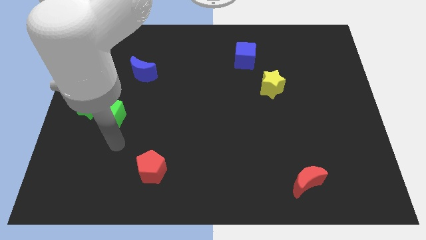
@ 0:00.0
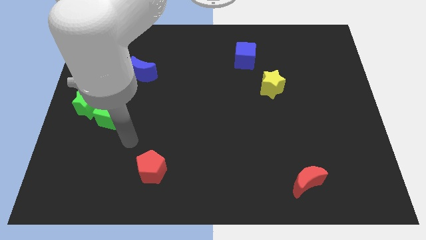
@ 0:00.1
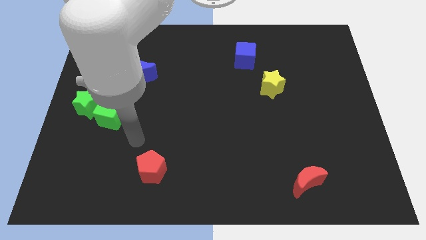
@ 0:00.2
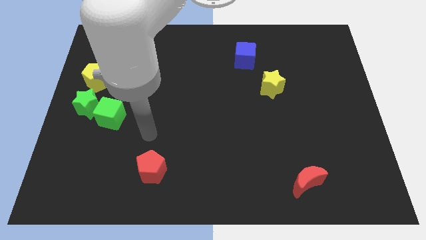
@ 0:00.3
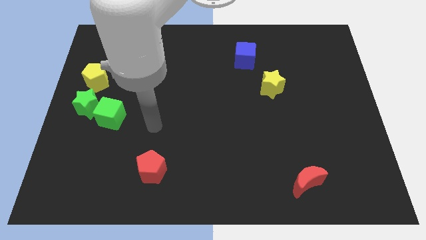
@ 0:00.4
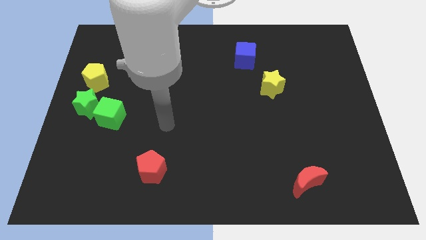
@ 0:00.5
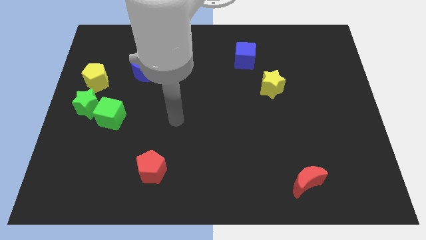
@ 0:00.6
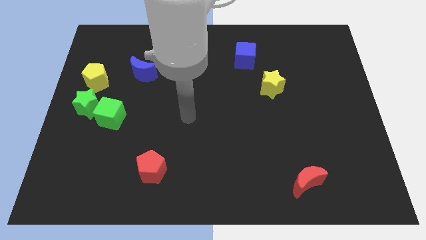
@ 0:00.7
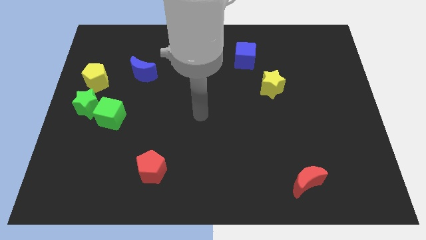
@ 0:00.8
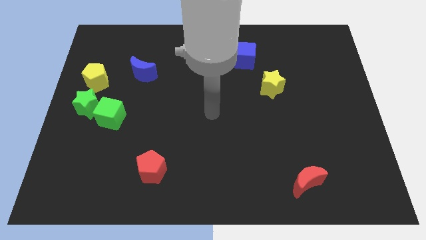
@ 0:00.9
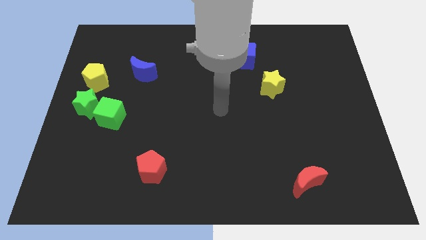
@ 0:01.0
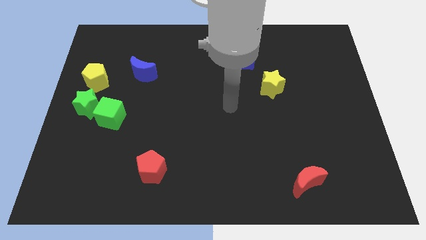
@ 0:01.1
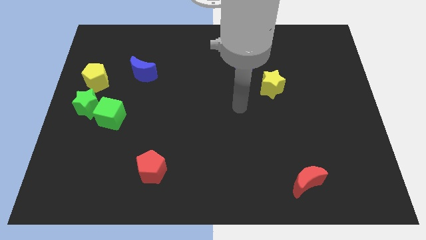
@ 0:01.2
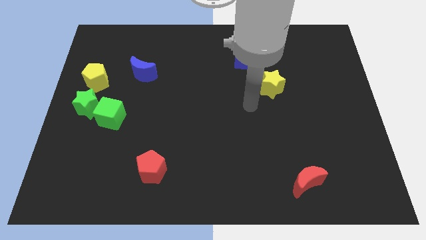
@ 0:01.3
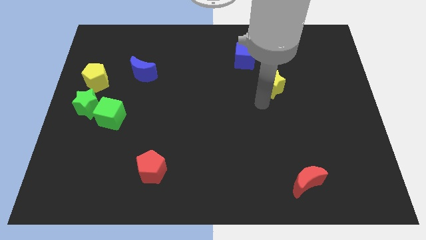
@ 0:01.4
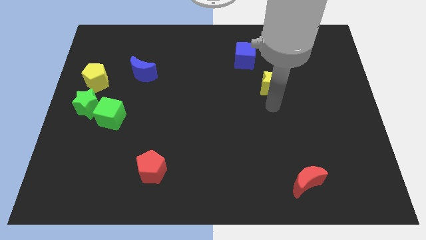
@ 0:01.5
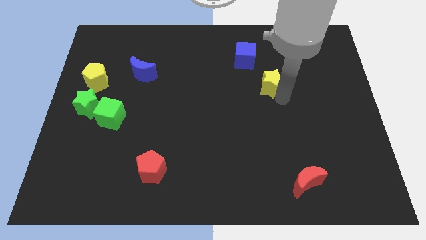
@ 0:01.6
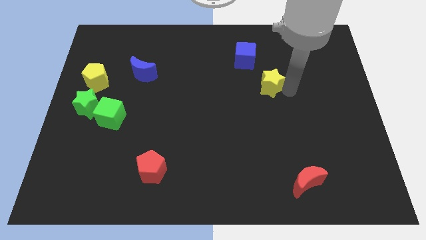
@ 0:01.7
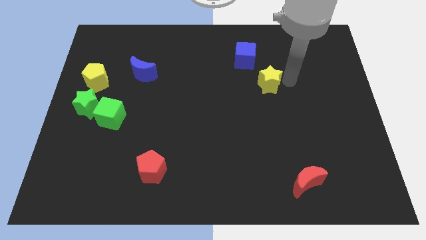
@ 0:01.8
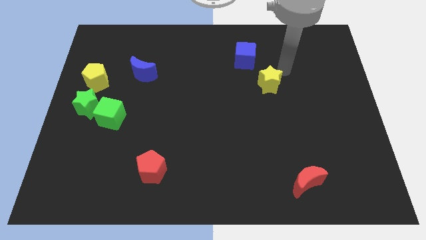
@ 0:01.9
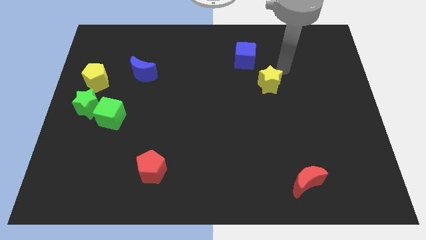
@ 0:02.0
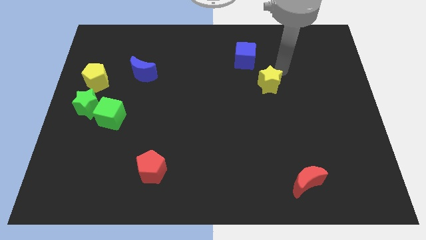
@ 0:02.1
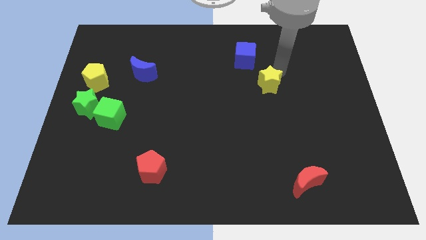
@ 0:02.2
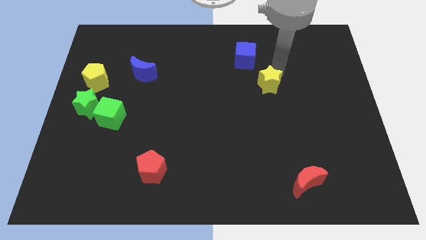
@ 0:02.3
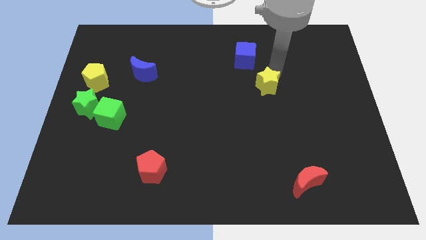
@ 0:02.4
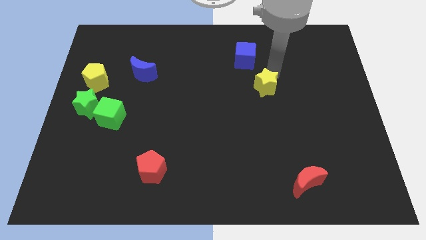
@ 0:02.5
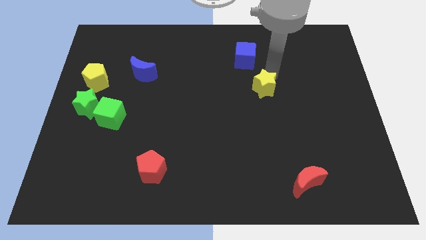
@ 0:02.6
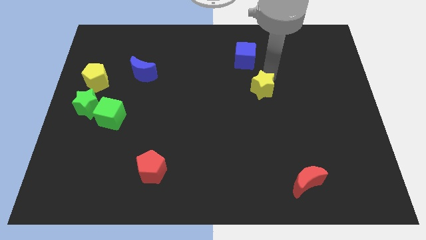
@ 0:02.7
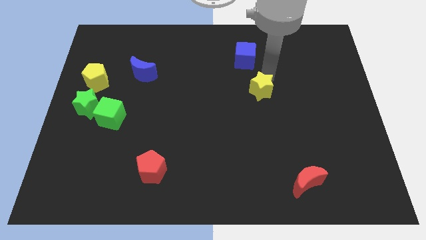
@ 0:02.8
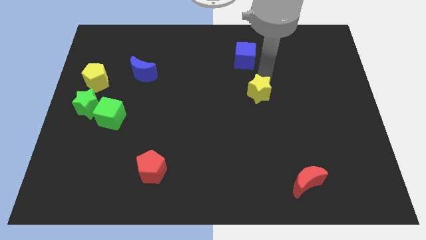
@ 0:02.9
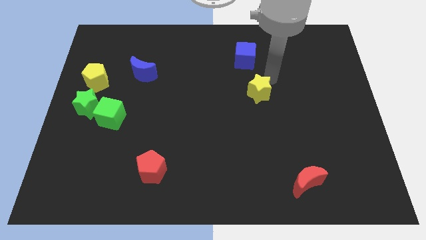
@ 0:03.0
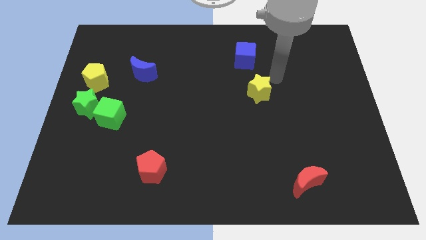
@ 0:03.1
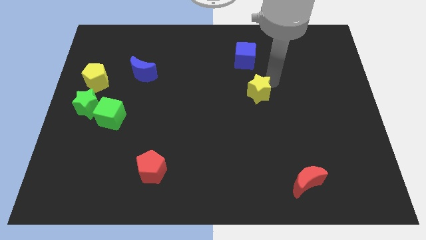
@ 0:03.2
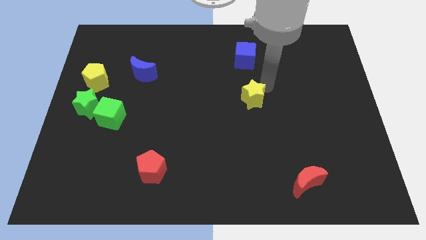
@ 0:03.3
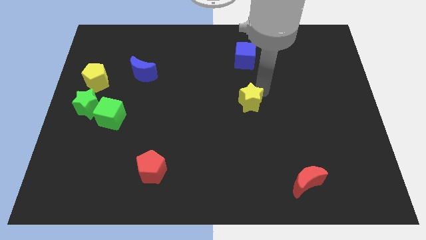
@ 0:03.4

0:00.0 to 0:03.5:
push the yellow star a little down and then left

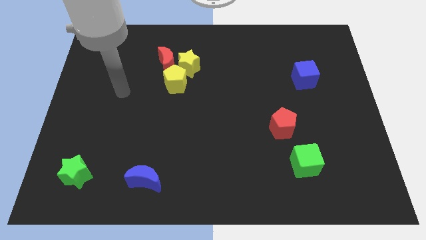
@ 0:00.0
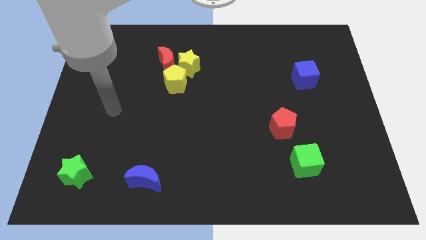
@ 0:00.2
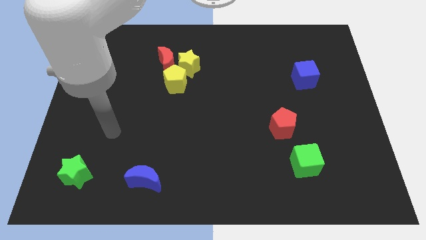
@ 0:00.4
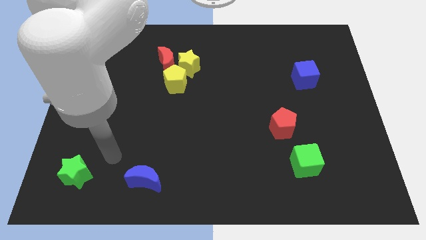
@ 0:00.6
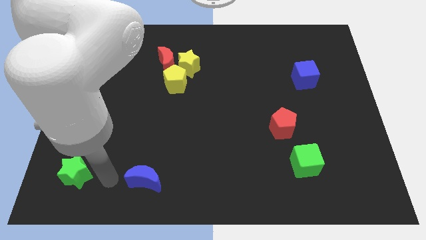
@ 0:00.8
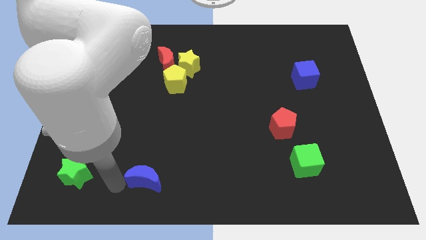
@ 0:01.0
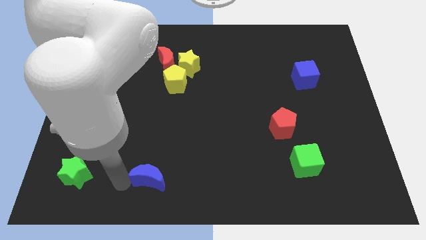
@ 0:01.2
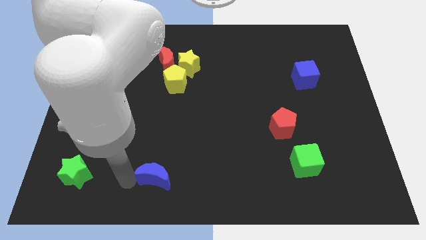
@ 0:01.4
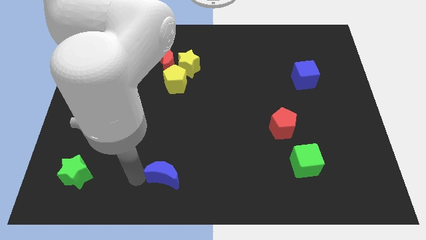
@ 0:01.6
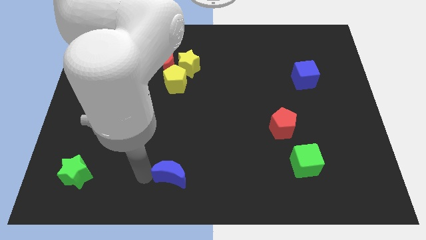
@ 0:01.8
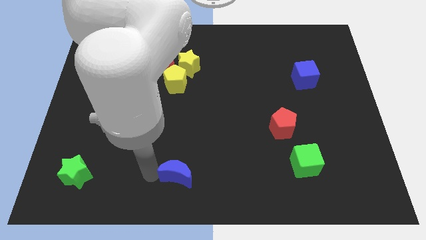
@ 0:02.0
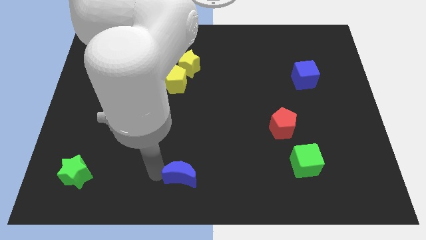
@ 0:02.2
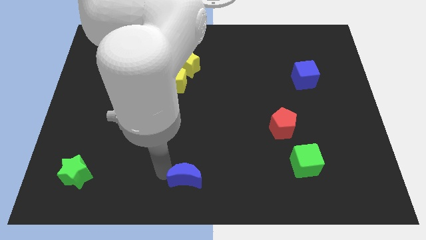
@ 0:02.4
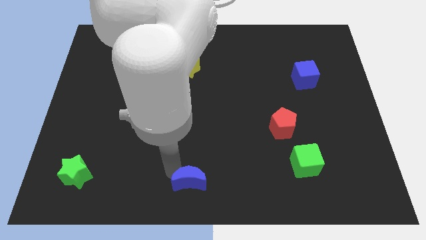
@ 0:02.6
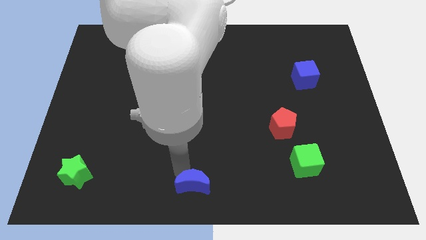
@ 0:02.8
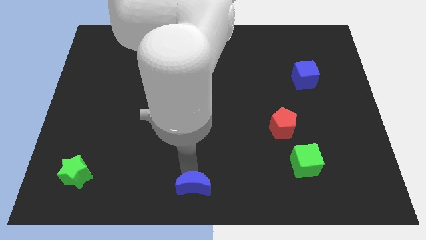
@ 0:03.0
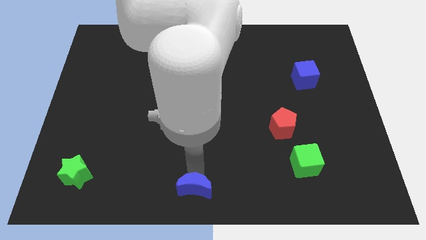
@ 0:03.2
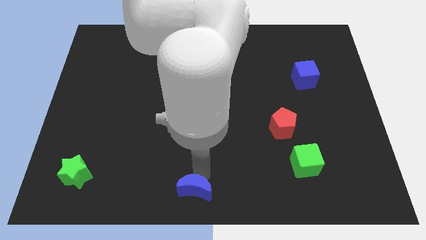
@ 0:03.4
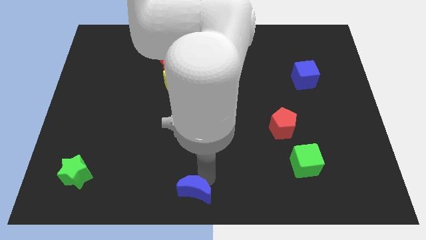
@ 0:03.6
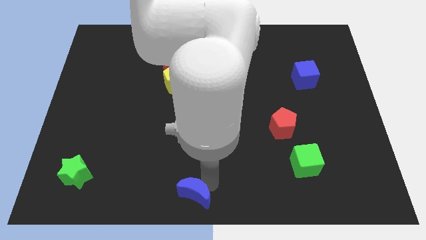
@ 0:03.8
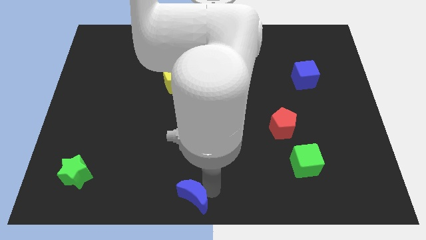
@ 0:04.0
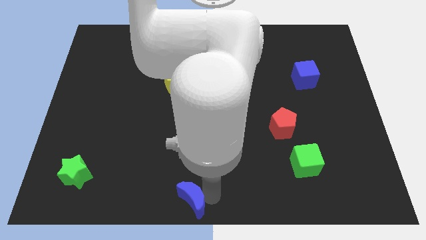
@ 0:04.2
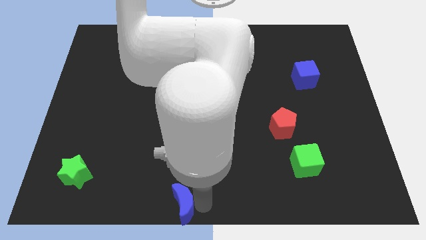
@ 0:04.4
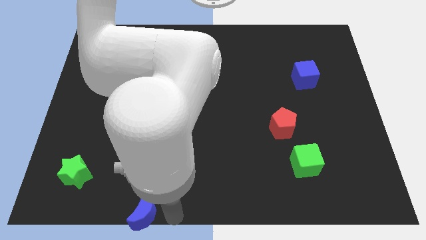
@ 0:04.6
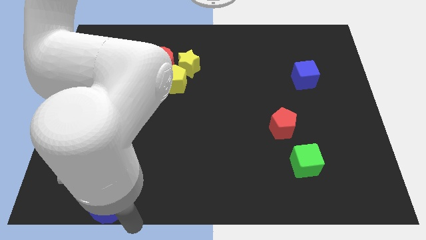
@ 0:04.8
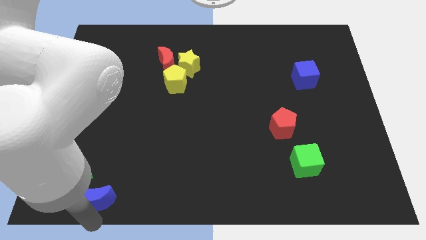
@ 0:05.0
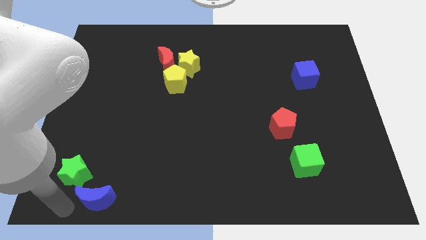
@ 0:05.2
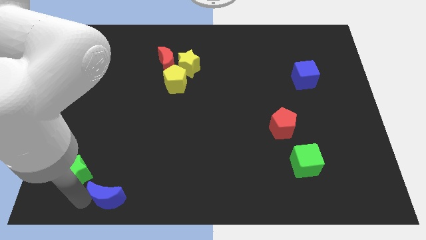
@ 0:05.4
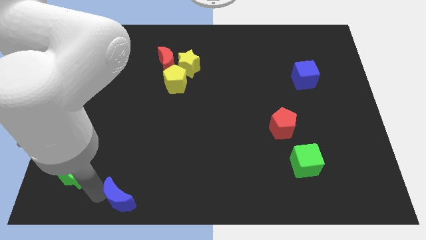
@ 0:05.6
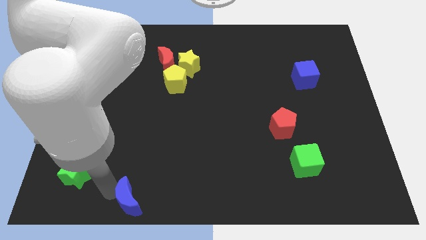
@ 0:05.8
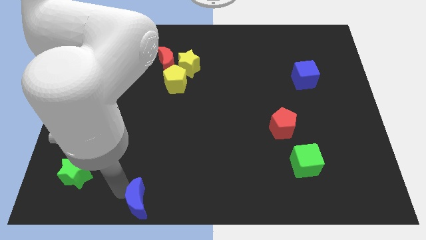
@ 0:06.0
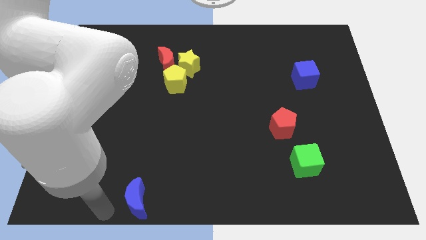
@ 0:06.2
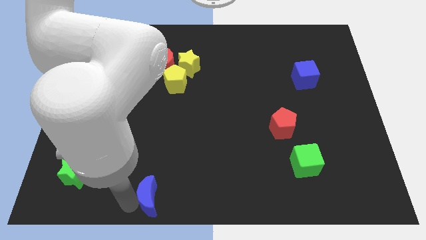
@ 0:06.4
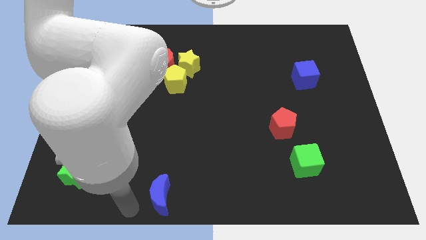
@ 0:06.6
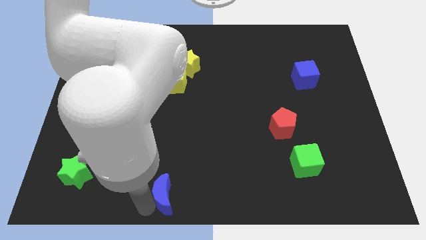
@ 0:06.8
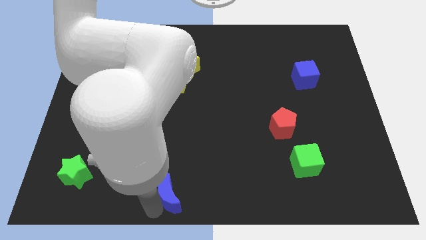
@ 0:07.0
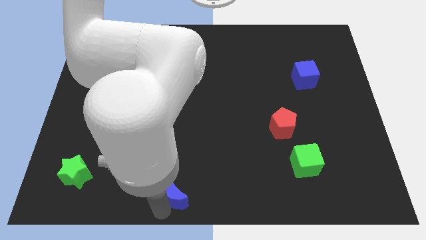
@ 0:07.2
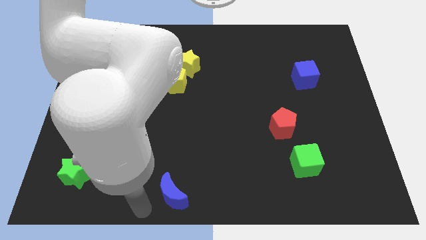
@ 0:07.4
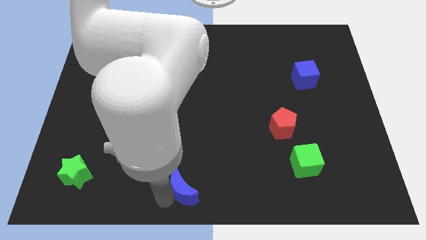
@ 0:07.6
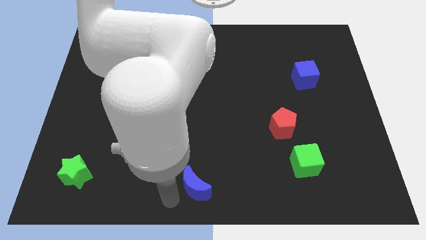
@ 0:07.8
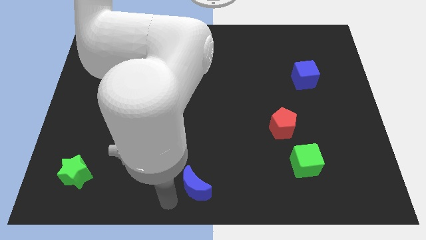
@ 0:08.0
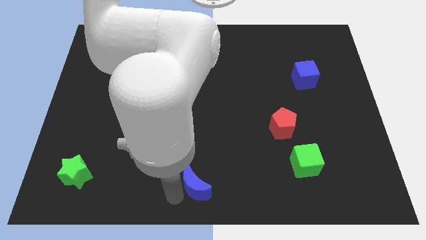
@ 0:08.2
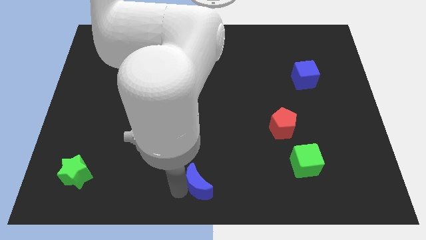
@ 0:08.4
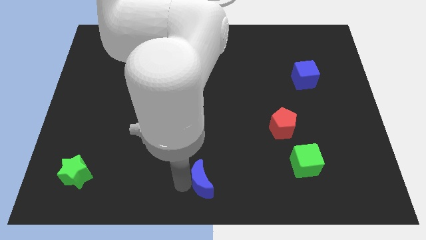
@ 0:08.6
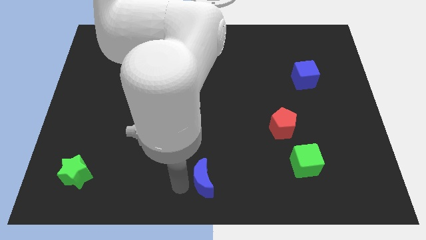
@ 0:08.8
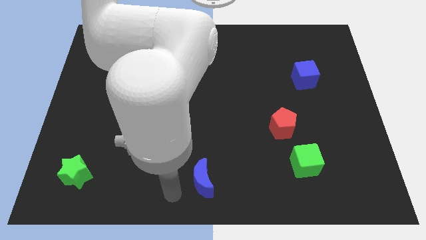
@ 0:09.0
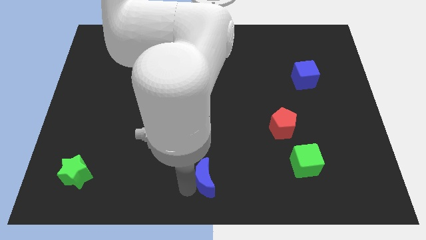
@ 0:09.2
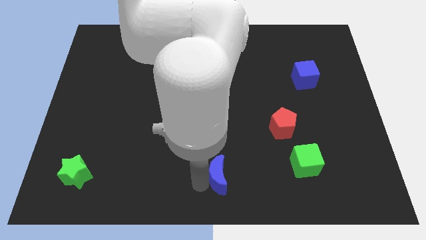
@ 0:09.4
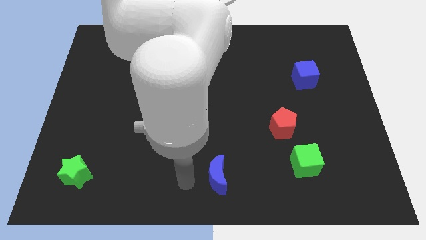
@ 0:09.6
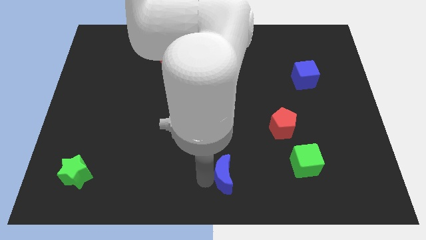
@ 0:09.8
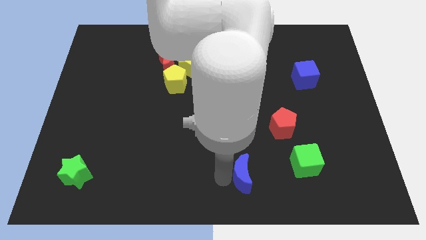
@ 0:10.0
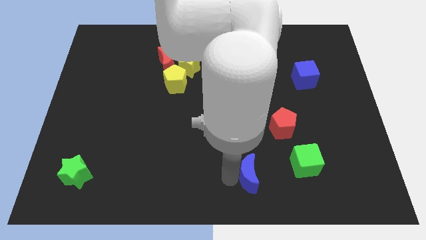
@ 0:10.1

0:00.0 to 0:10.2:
move the blue moon right

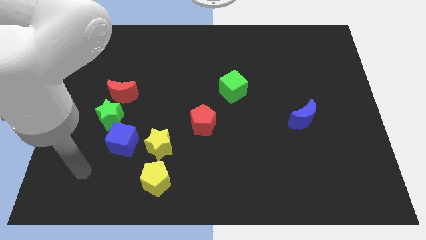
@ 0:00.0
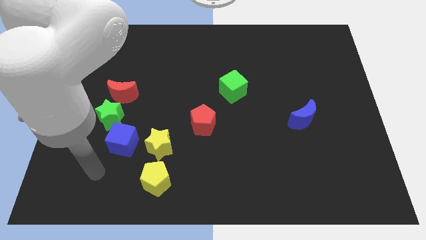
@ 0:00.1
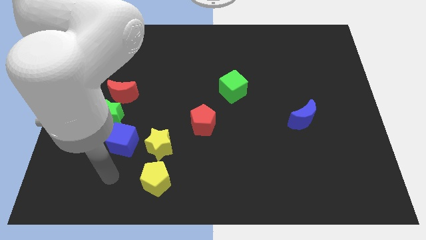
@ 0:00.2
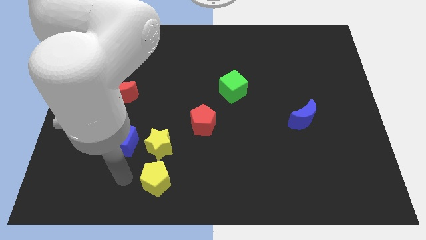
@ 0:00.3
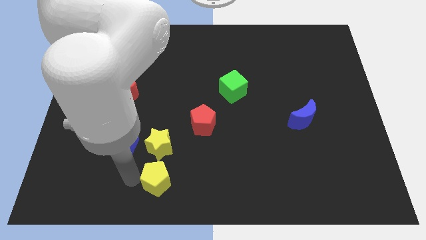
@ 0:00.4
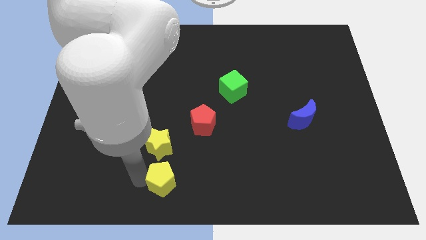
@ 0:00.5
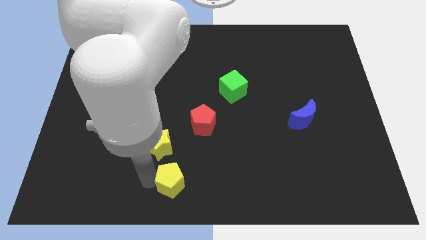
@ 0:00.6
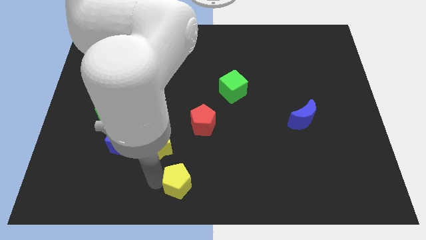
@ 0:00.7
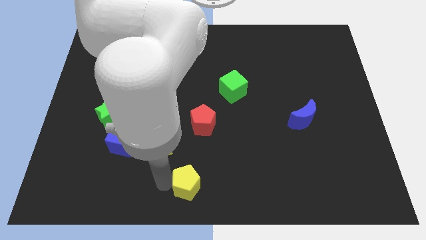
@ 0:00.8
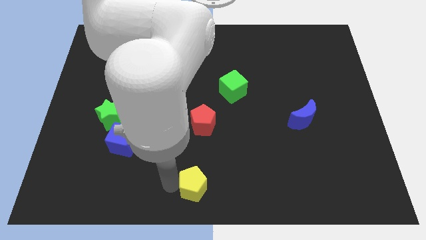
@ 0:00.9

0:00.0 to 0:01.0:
push the yellow pentagon to the right a bit
